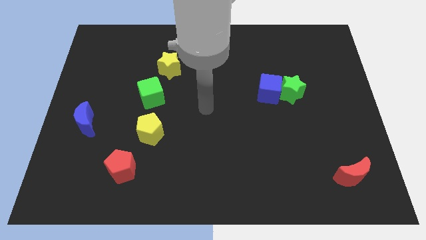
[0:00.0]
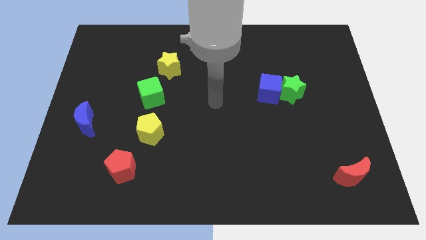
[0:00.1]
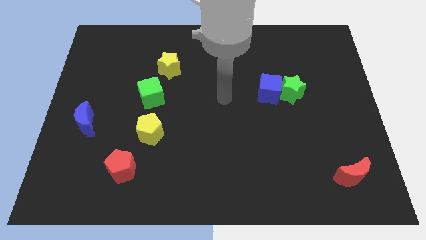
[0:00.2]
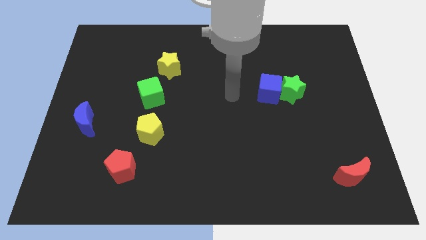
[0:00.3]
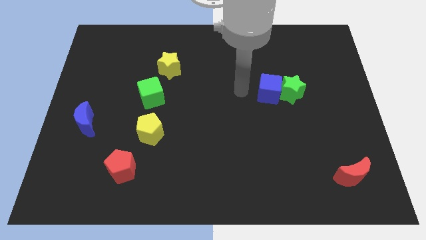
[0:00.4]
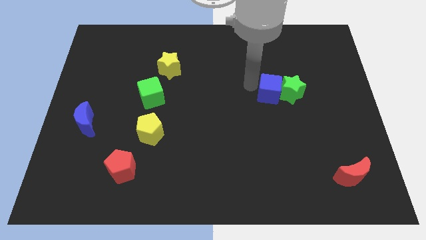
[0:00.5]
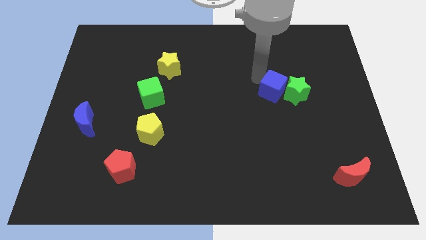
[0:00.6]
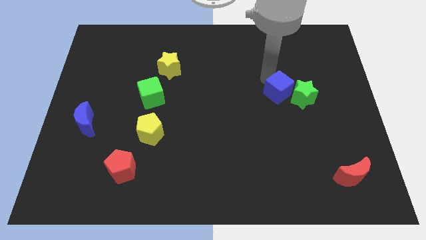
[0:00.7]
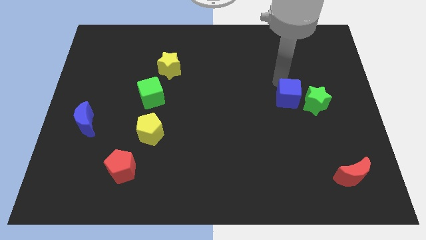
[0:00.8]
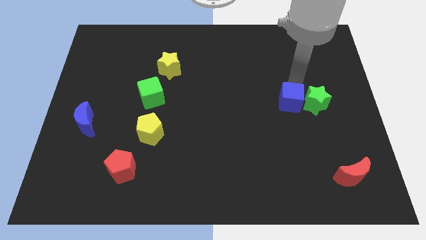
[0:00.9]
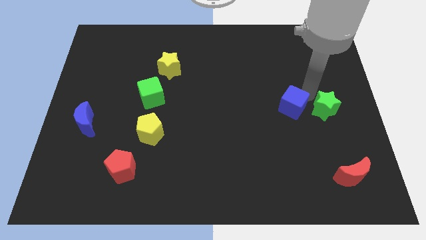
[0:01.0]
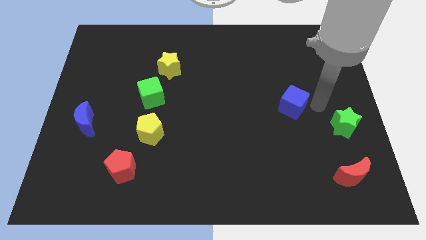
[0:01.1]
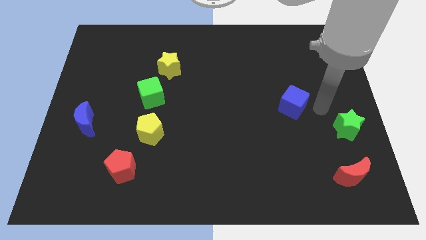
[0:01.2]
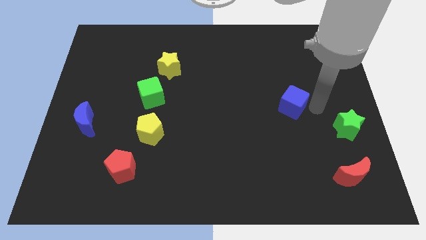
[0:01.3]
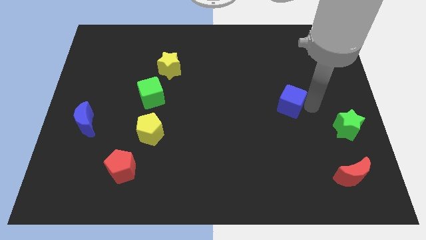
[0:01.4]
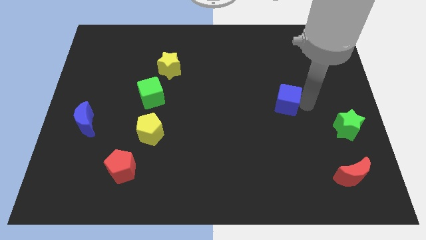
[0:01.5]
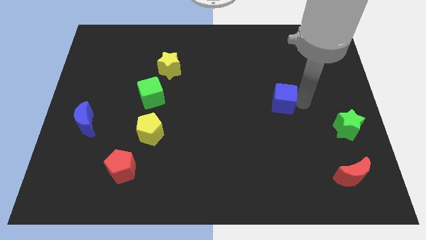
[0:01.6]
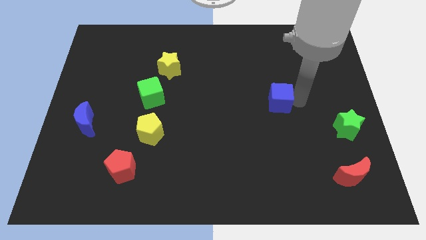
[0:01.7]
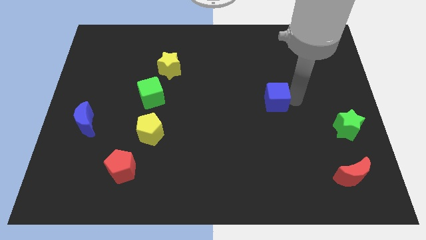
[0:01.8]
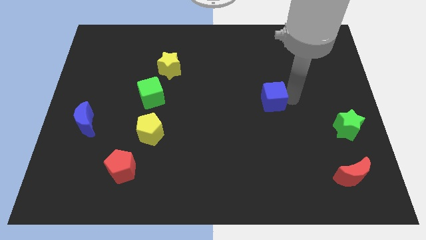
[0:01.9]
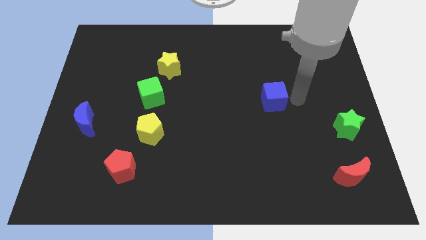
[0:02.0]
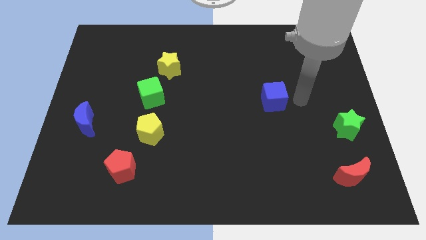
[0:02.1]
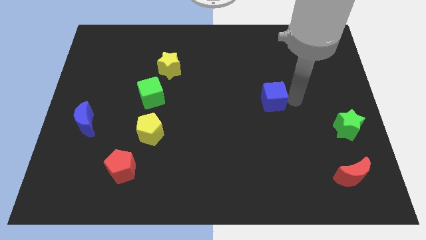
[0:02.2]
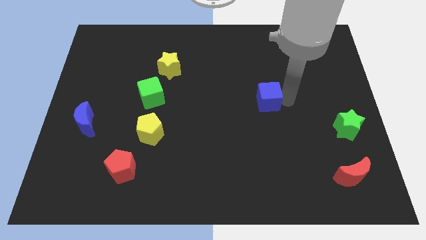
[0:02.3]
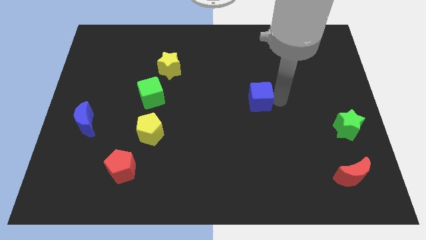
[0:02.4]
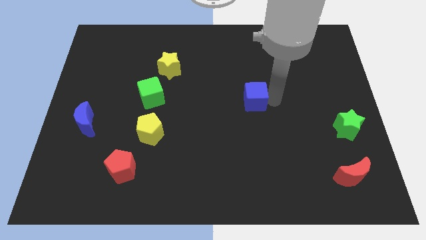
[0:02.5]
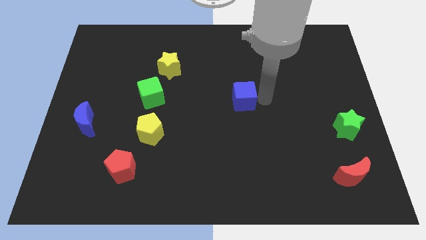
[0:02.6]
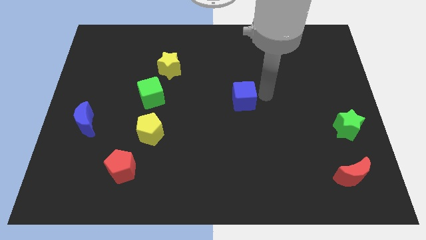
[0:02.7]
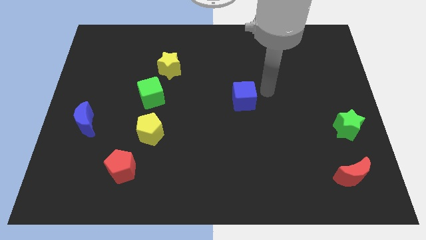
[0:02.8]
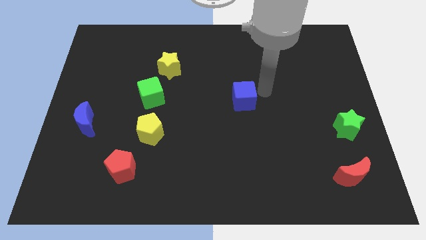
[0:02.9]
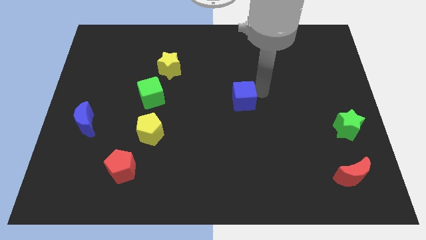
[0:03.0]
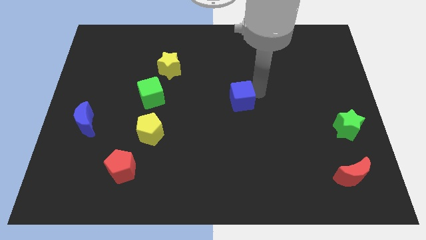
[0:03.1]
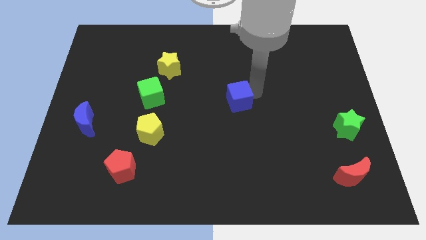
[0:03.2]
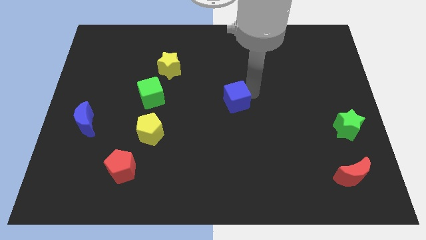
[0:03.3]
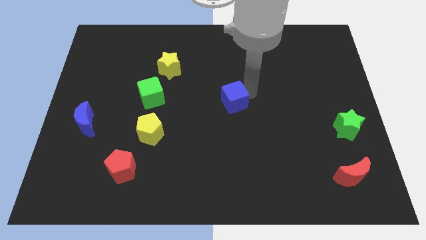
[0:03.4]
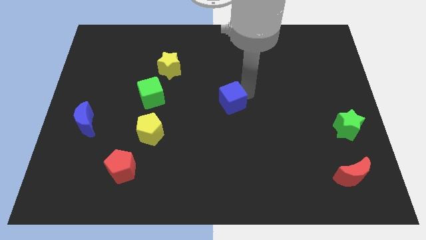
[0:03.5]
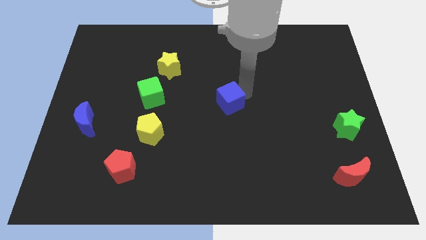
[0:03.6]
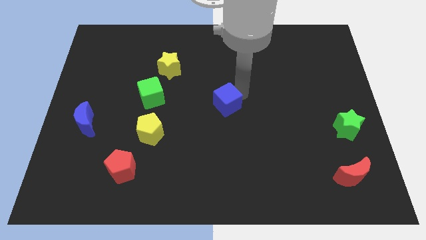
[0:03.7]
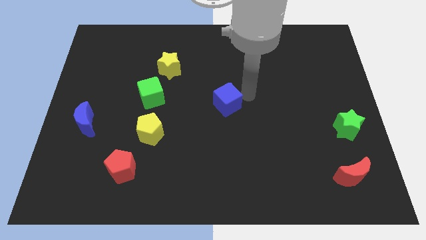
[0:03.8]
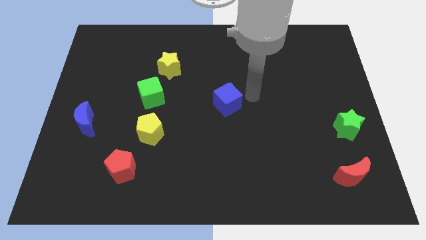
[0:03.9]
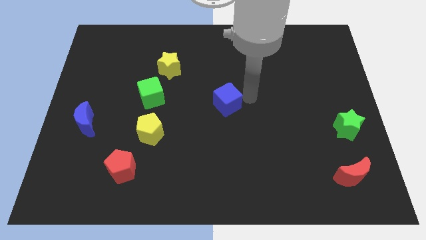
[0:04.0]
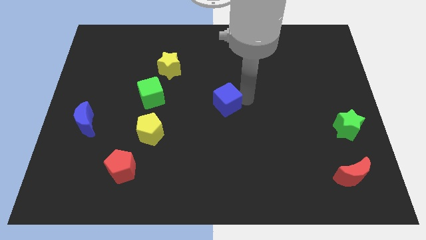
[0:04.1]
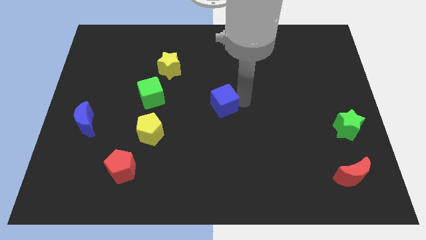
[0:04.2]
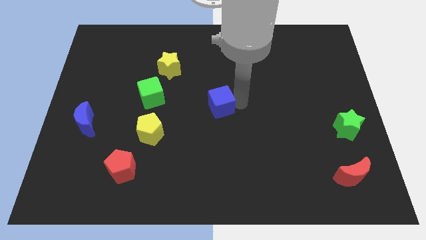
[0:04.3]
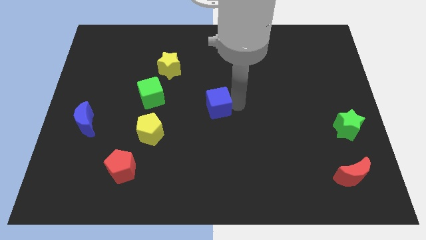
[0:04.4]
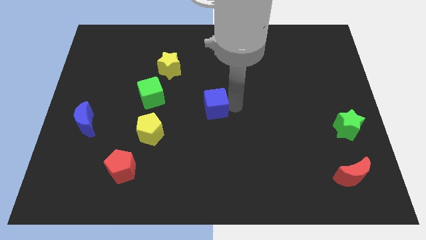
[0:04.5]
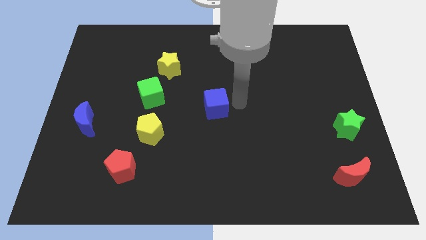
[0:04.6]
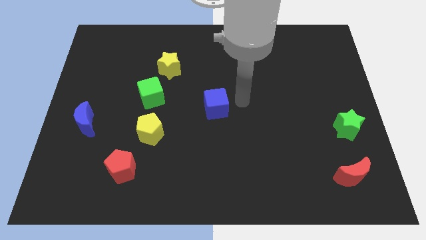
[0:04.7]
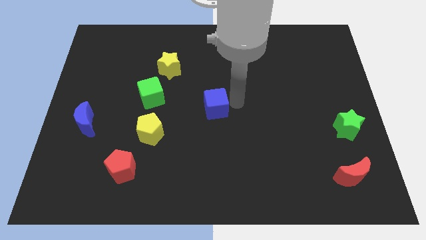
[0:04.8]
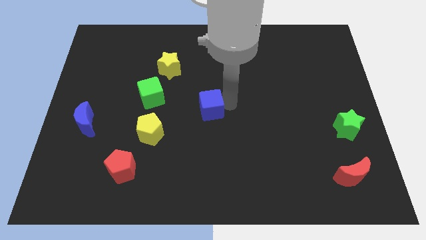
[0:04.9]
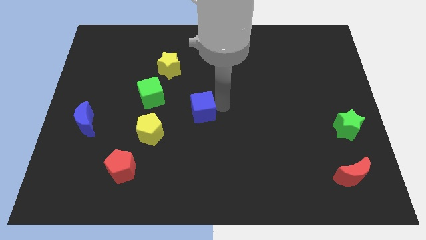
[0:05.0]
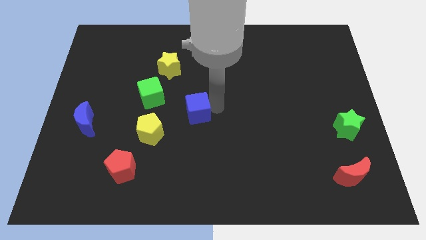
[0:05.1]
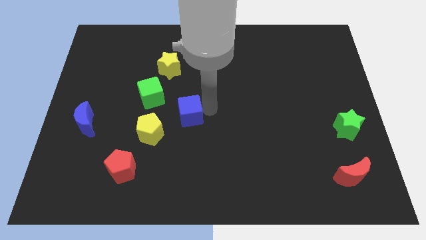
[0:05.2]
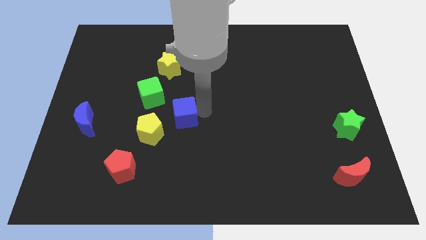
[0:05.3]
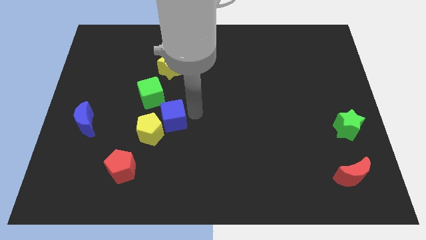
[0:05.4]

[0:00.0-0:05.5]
slide the blue cube towards the yellow pentagon

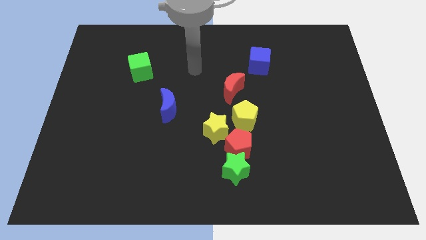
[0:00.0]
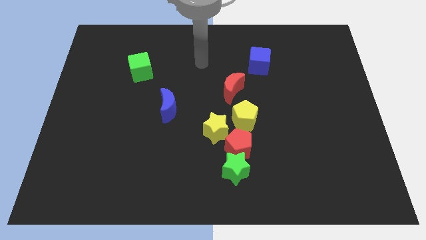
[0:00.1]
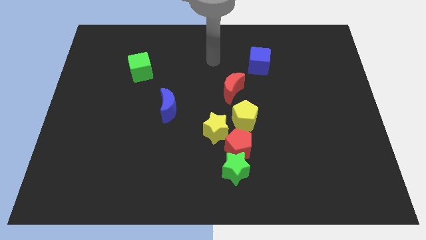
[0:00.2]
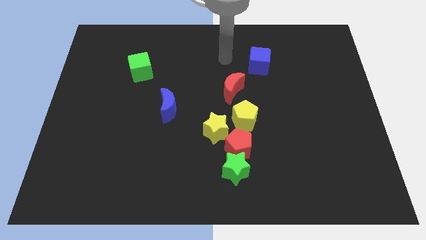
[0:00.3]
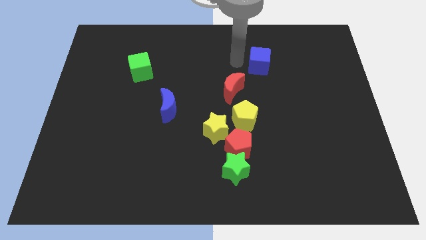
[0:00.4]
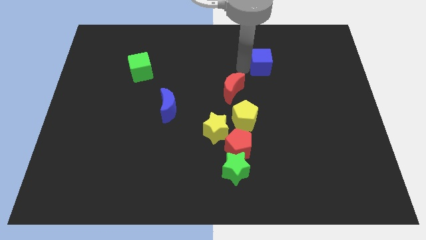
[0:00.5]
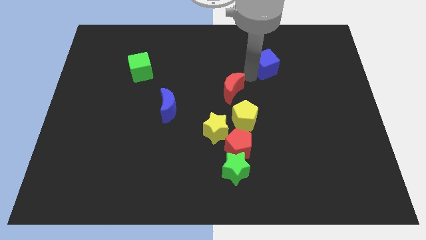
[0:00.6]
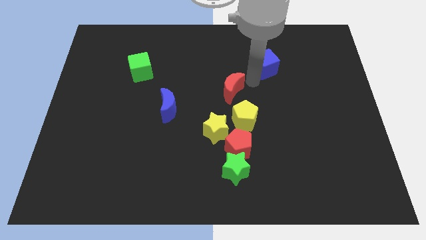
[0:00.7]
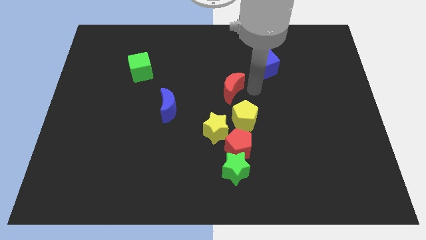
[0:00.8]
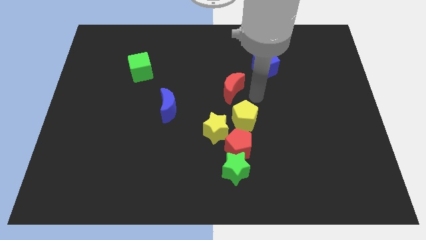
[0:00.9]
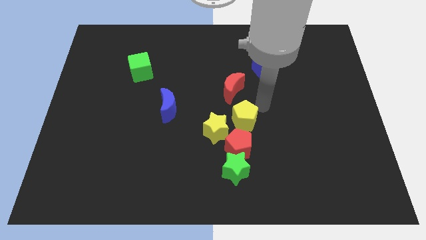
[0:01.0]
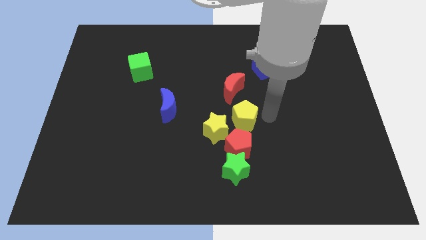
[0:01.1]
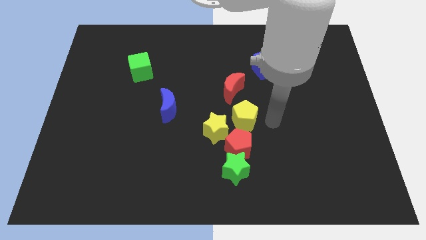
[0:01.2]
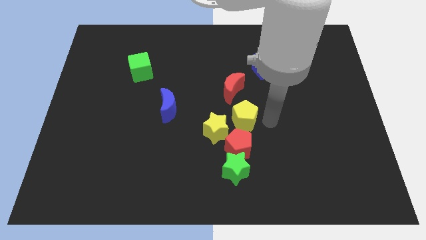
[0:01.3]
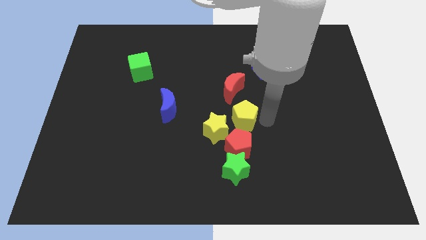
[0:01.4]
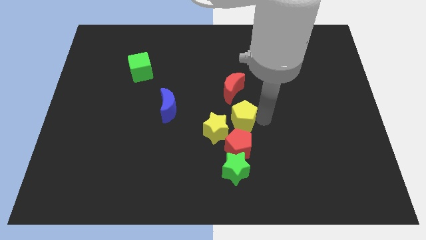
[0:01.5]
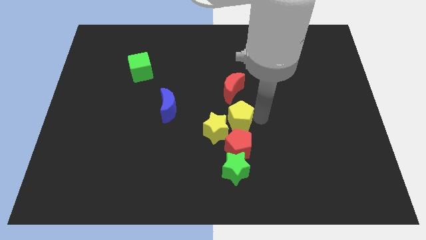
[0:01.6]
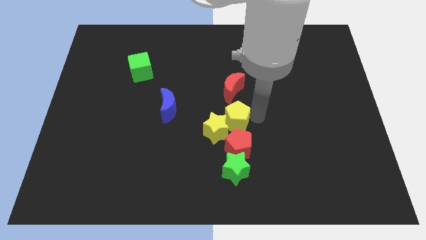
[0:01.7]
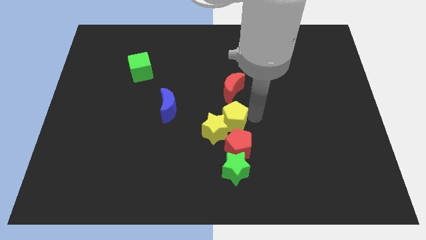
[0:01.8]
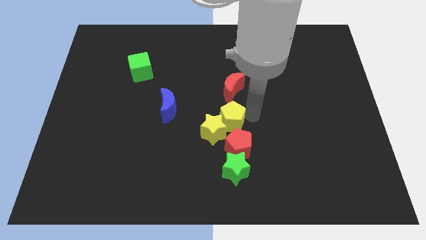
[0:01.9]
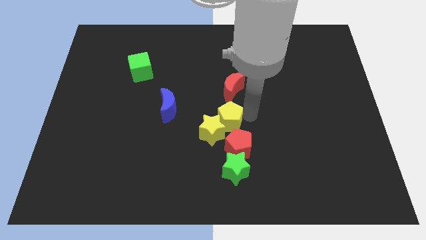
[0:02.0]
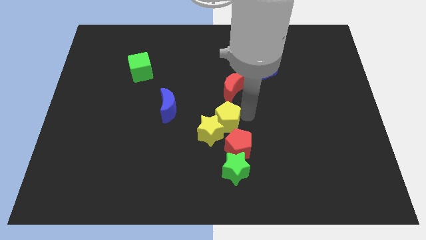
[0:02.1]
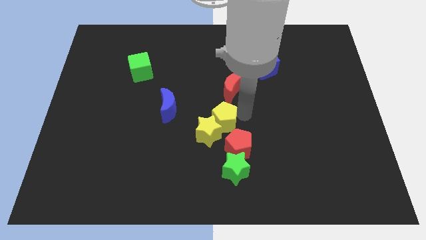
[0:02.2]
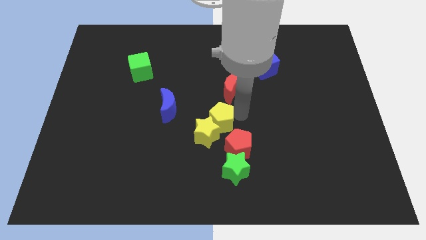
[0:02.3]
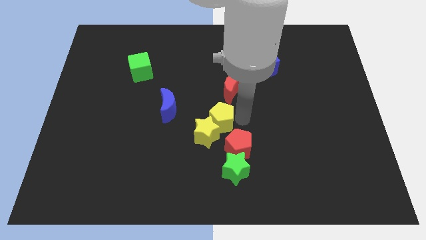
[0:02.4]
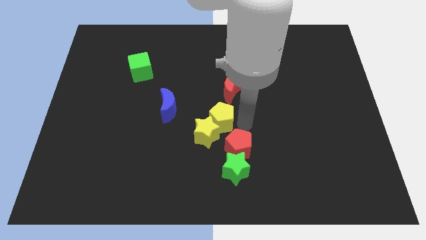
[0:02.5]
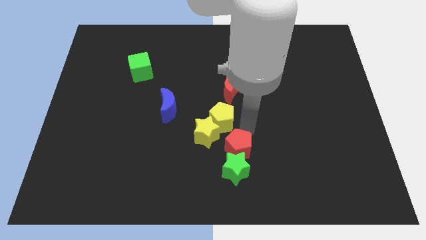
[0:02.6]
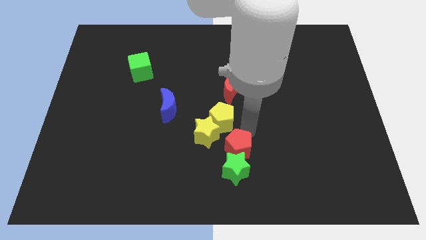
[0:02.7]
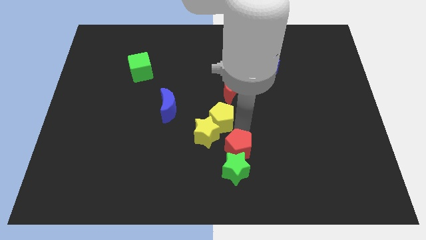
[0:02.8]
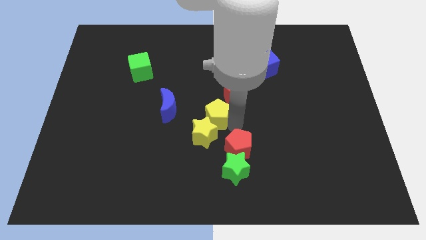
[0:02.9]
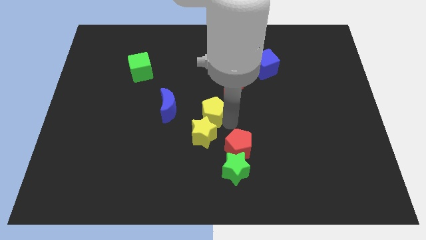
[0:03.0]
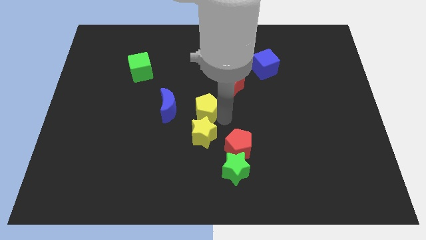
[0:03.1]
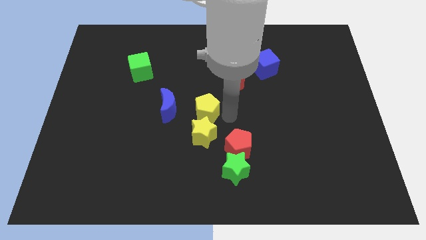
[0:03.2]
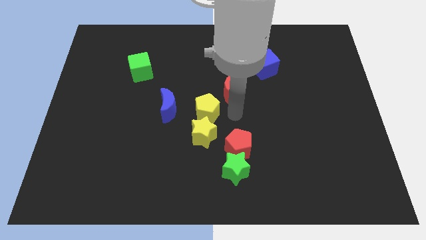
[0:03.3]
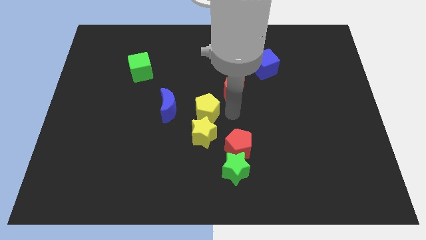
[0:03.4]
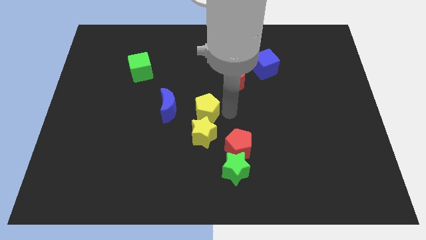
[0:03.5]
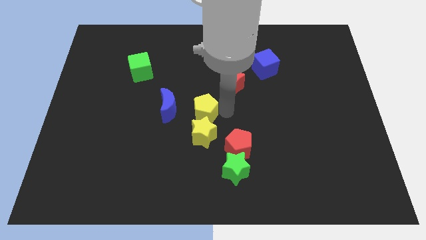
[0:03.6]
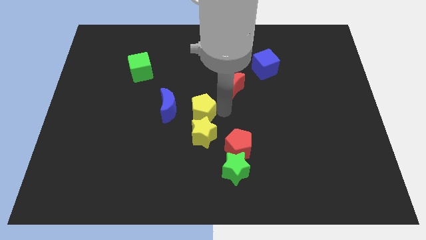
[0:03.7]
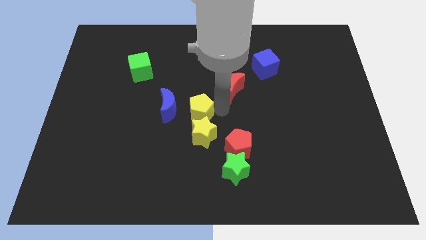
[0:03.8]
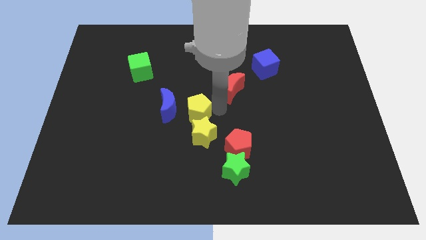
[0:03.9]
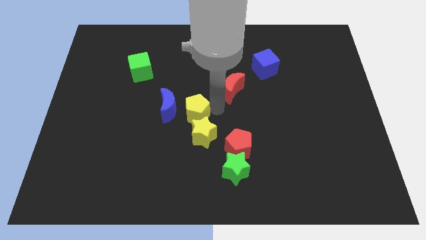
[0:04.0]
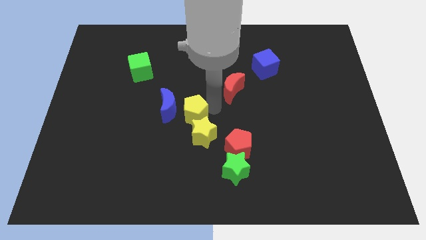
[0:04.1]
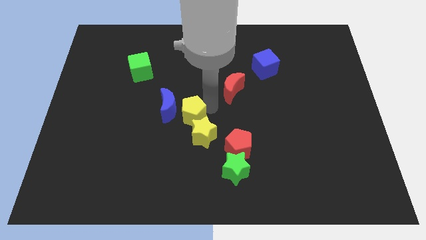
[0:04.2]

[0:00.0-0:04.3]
push the yellow pentagon close to the blue moon
